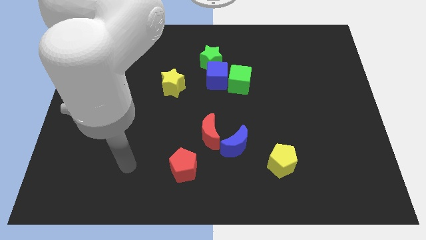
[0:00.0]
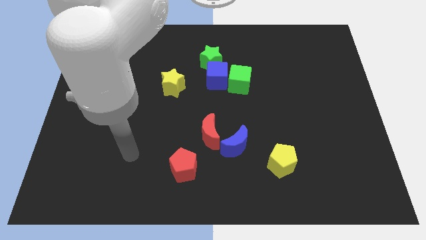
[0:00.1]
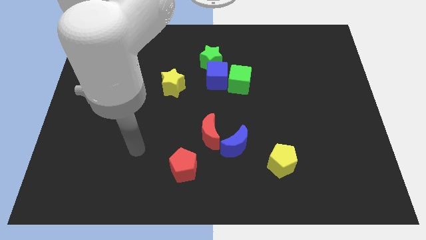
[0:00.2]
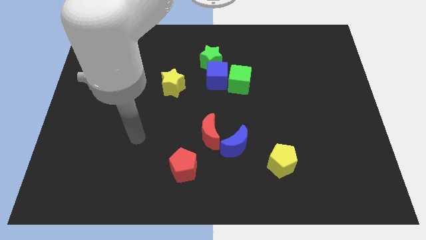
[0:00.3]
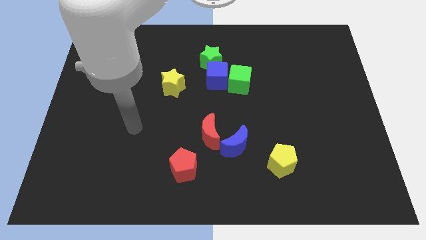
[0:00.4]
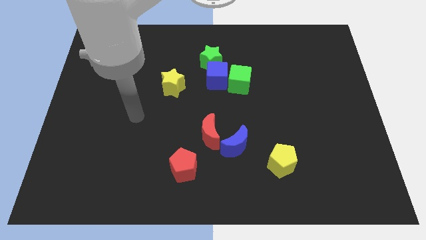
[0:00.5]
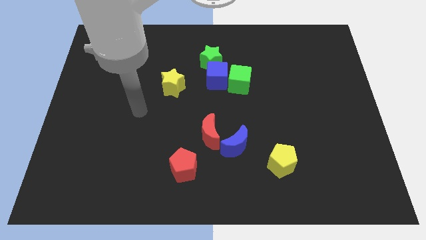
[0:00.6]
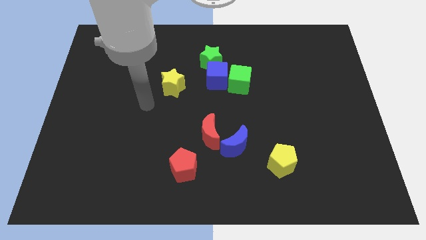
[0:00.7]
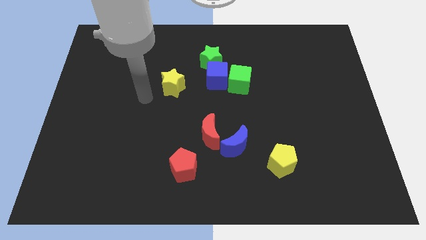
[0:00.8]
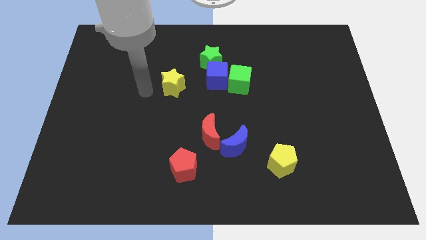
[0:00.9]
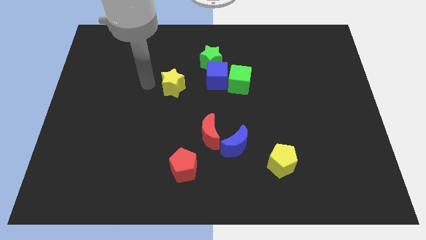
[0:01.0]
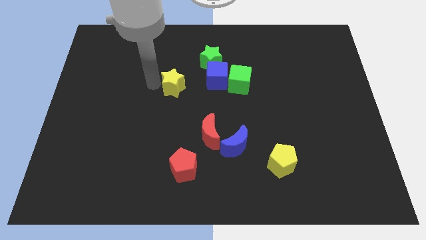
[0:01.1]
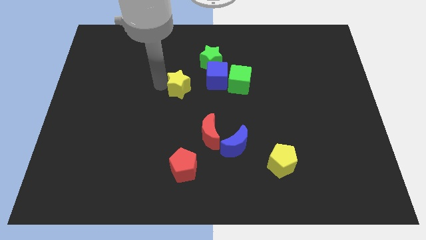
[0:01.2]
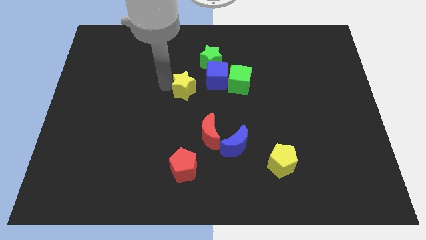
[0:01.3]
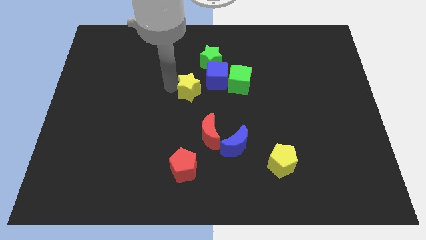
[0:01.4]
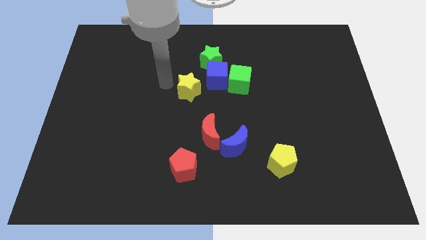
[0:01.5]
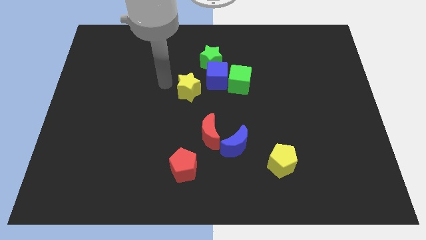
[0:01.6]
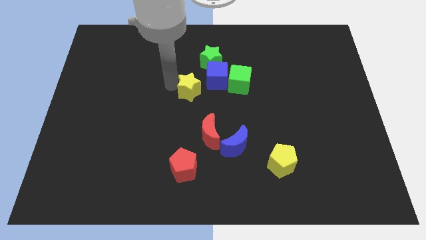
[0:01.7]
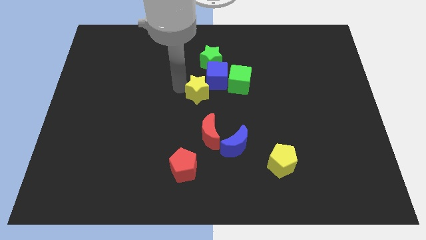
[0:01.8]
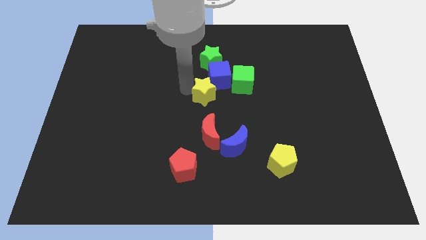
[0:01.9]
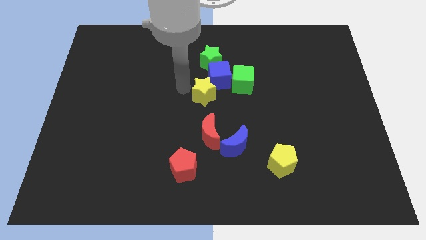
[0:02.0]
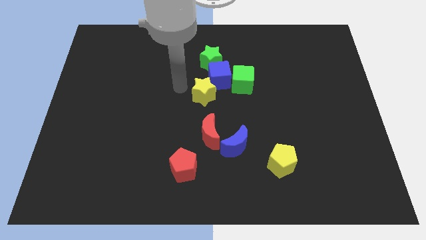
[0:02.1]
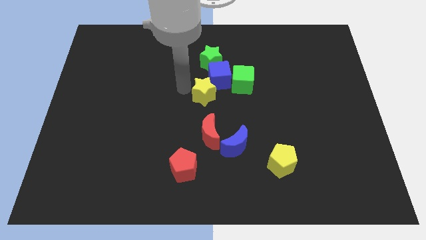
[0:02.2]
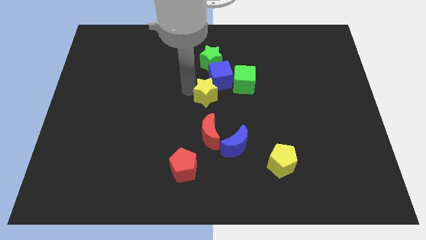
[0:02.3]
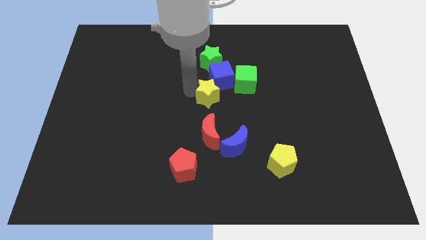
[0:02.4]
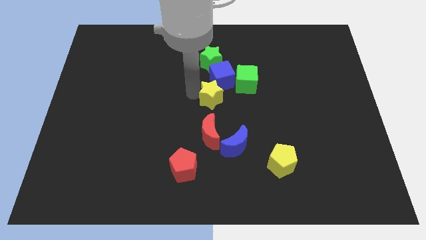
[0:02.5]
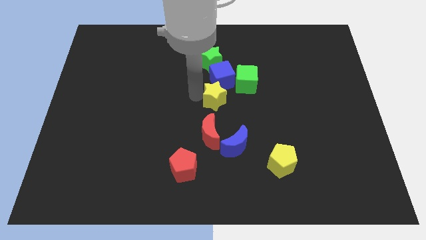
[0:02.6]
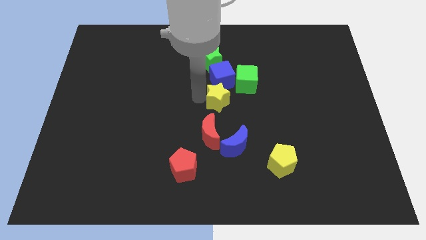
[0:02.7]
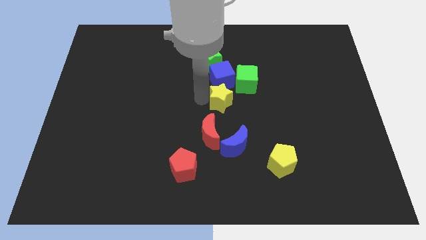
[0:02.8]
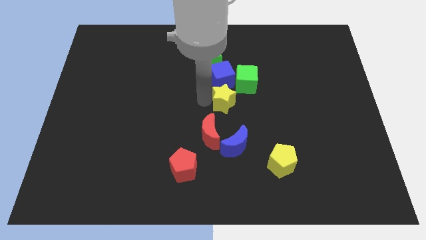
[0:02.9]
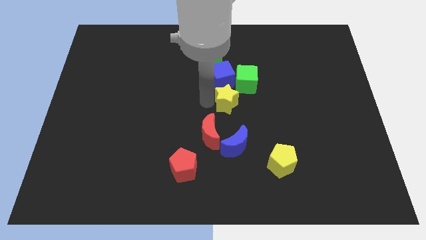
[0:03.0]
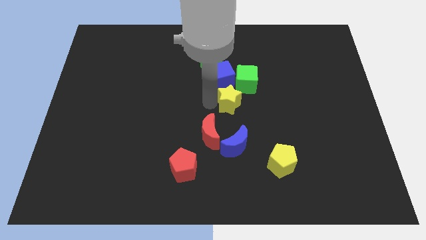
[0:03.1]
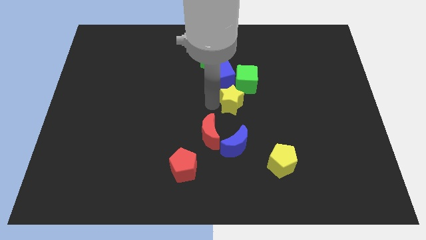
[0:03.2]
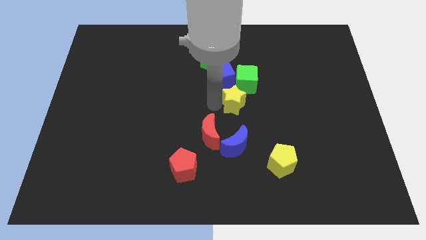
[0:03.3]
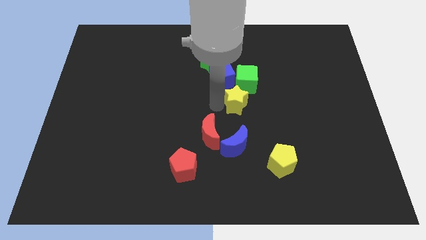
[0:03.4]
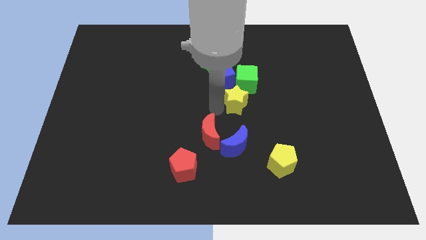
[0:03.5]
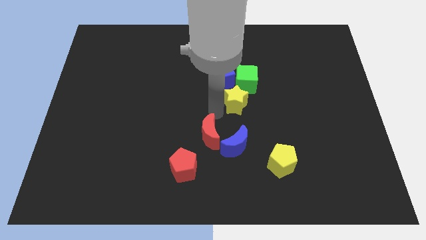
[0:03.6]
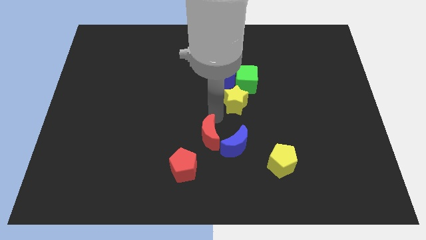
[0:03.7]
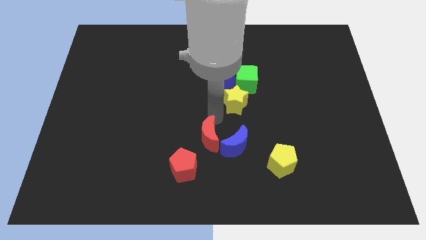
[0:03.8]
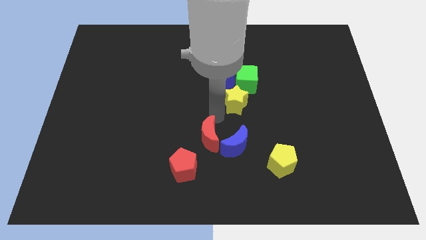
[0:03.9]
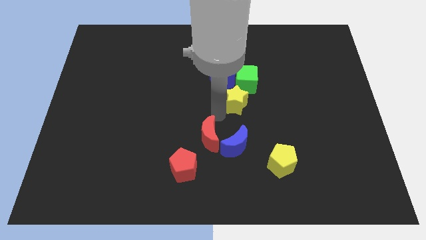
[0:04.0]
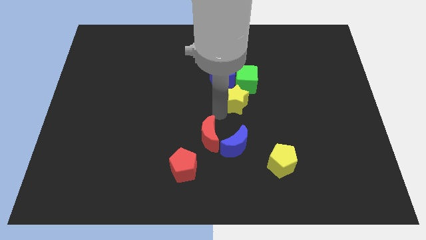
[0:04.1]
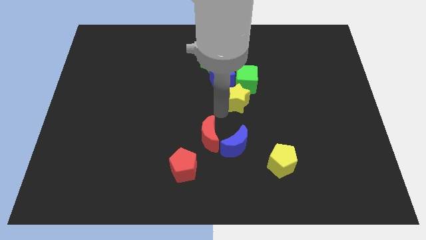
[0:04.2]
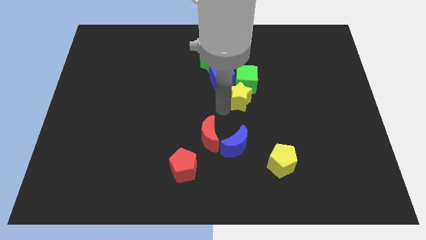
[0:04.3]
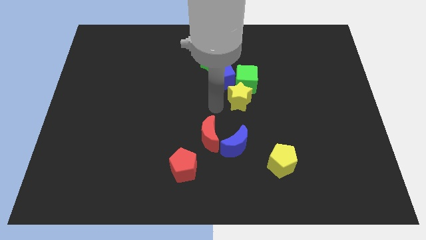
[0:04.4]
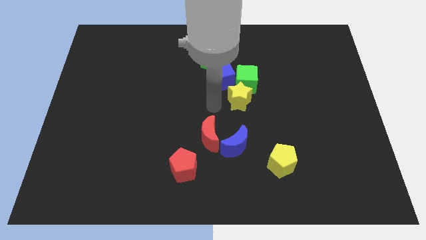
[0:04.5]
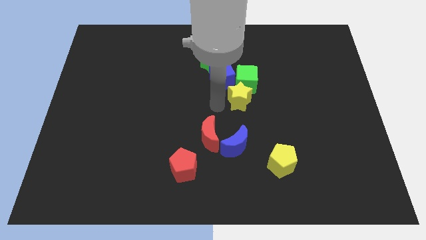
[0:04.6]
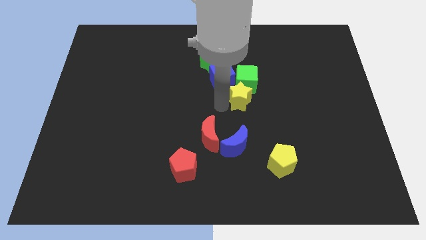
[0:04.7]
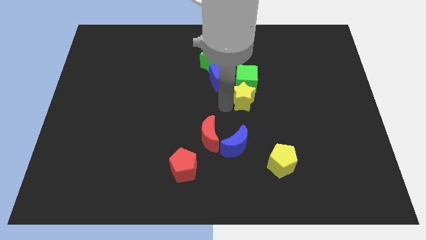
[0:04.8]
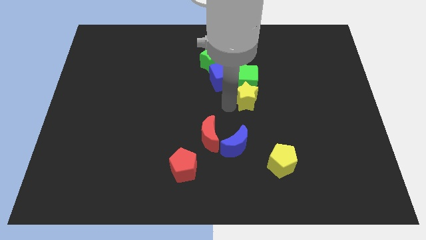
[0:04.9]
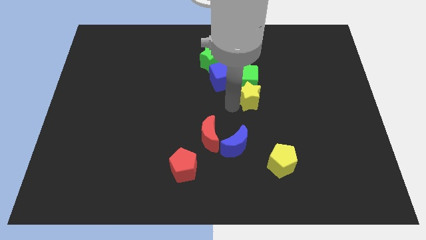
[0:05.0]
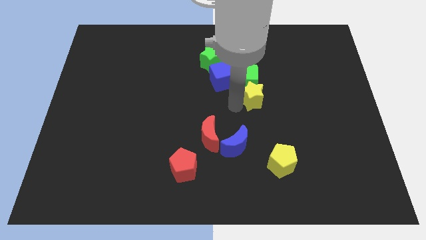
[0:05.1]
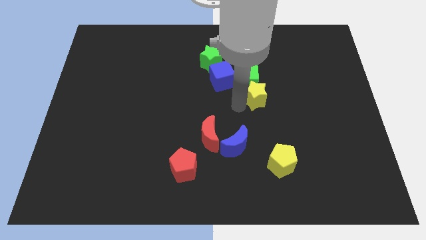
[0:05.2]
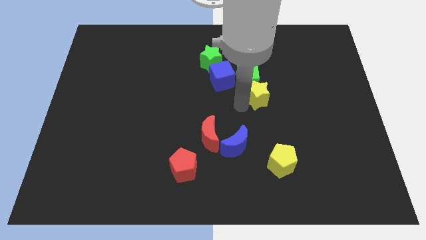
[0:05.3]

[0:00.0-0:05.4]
slide the yellow star right

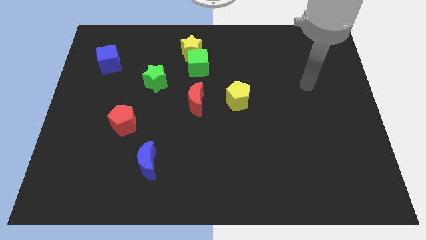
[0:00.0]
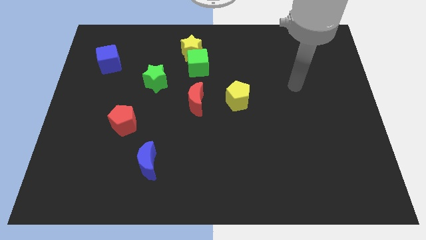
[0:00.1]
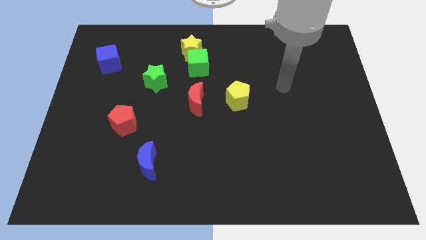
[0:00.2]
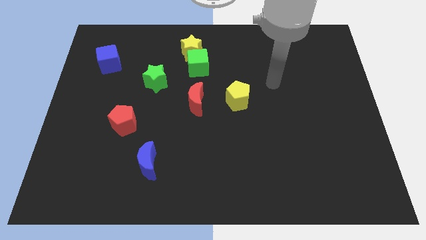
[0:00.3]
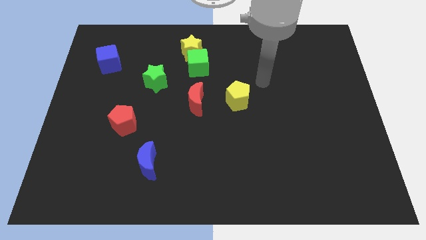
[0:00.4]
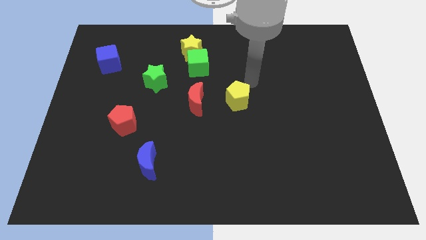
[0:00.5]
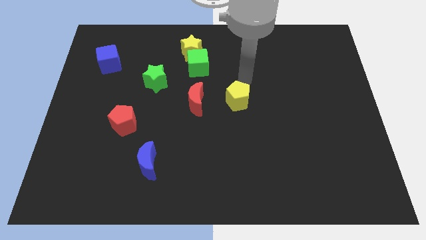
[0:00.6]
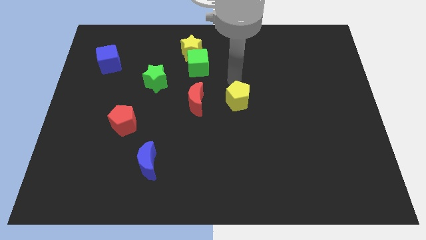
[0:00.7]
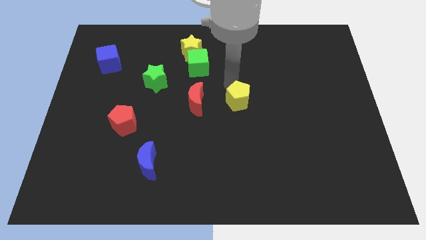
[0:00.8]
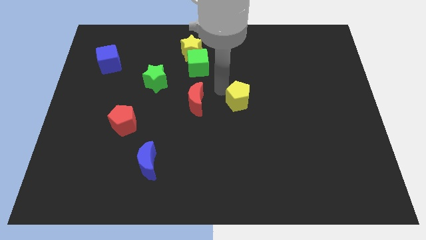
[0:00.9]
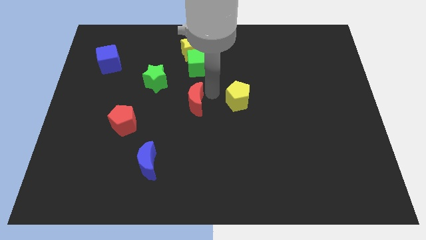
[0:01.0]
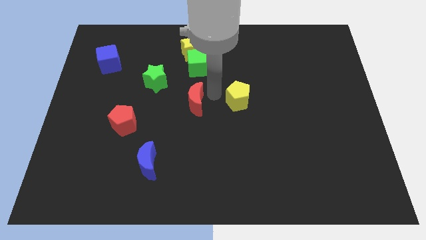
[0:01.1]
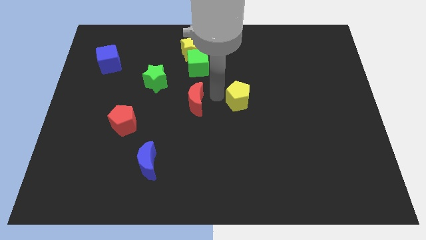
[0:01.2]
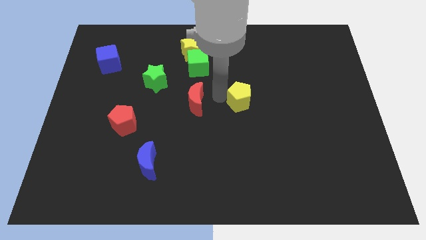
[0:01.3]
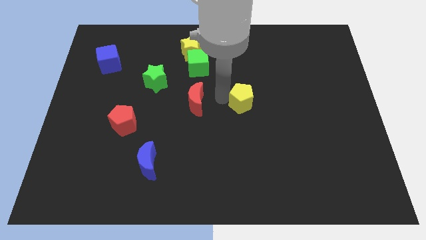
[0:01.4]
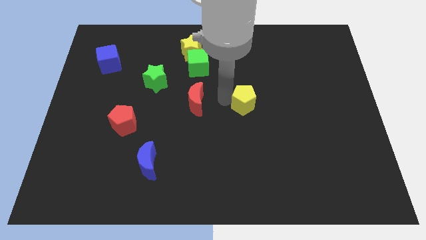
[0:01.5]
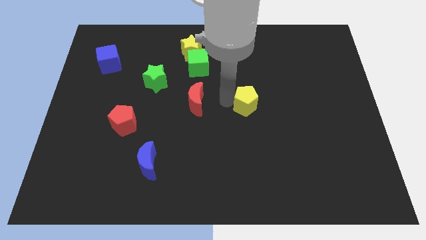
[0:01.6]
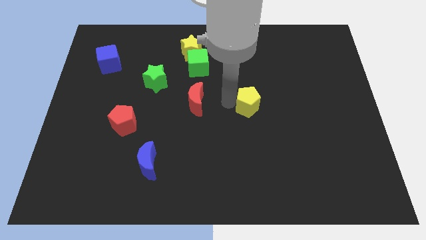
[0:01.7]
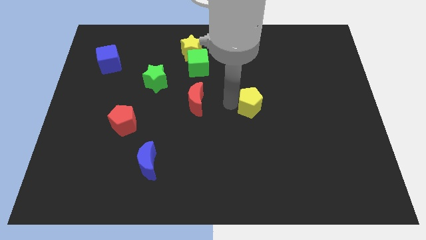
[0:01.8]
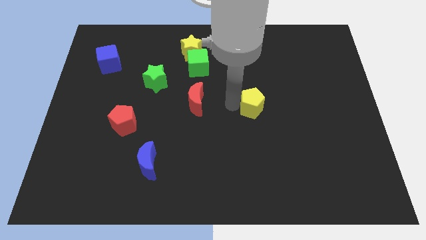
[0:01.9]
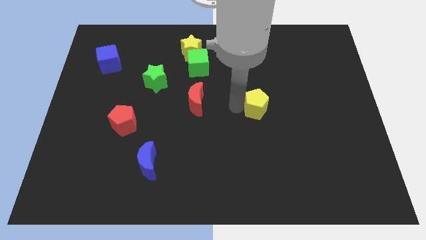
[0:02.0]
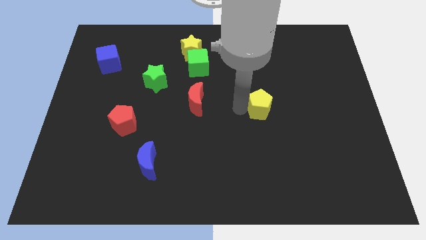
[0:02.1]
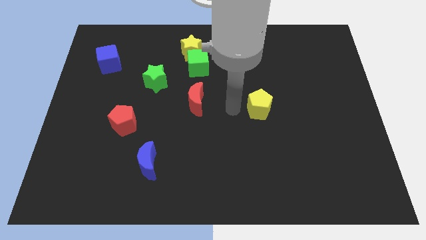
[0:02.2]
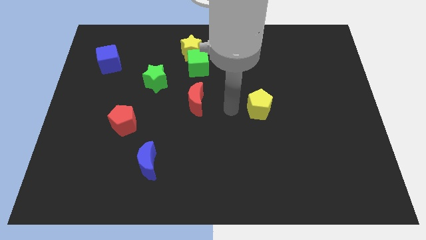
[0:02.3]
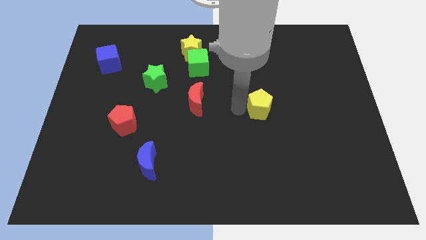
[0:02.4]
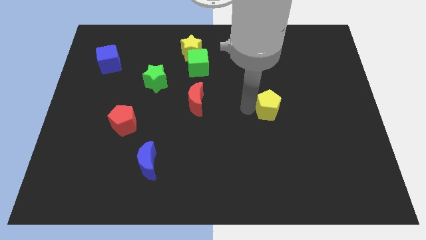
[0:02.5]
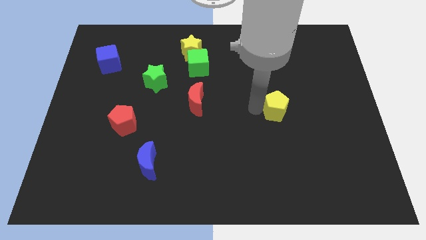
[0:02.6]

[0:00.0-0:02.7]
slightly move the yellow pentagon to the right

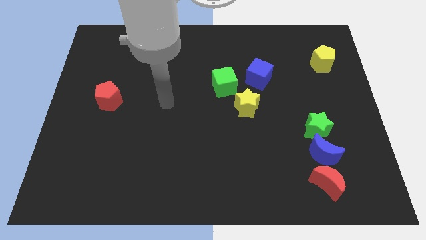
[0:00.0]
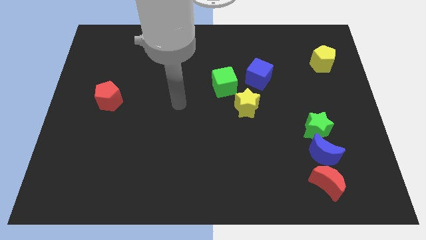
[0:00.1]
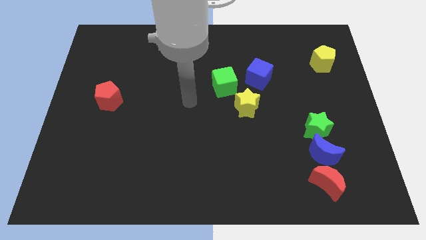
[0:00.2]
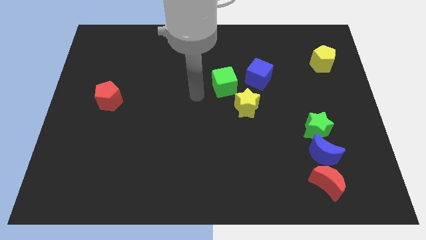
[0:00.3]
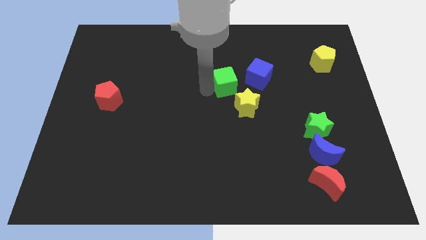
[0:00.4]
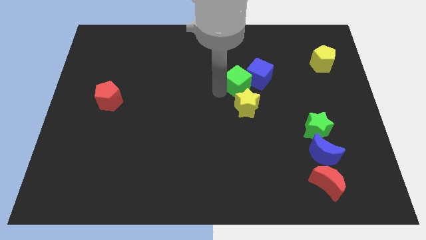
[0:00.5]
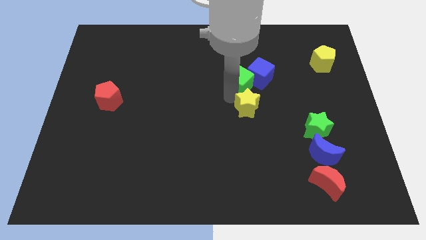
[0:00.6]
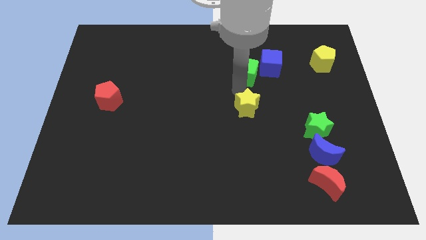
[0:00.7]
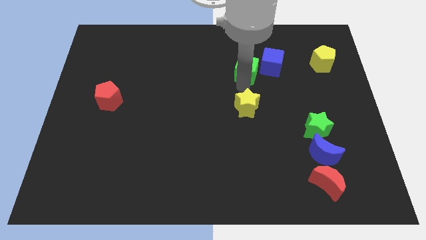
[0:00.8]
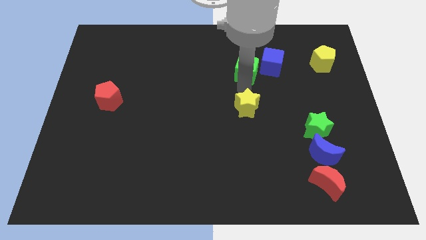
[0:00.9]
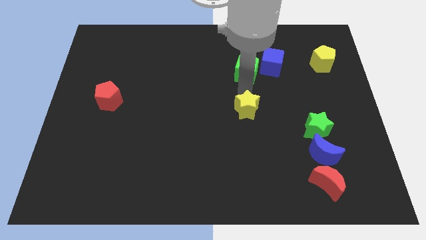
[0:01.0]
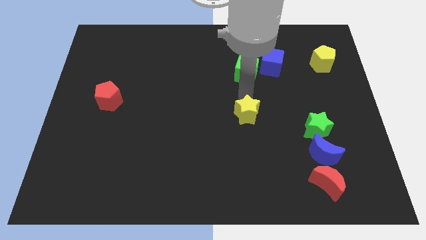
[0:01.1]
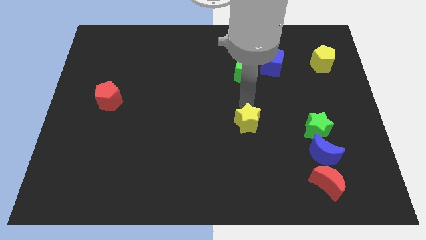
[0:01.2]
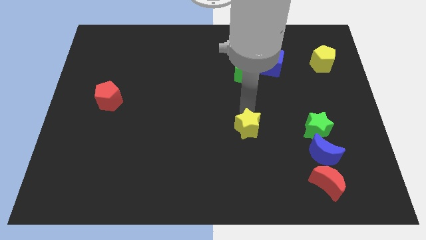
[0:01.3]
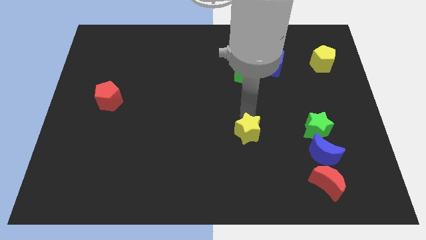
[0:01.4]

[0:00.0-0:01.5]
slightly slide the yellow star down
